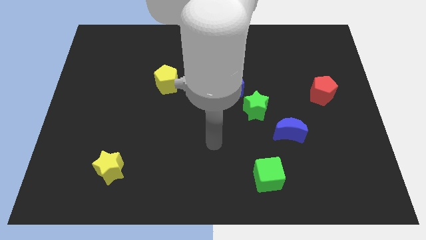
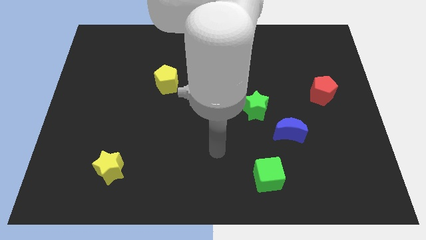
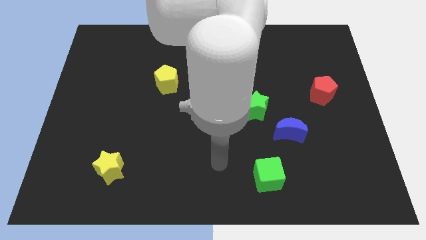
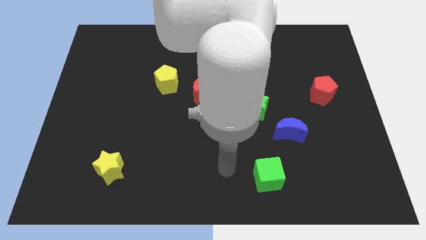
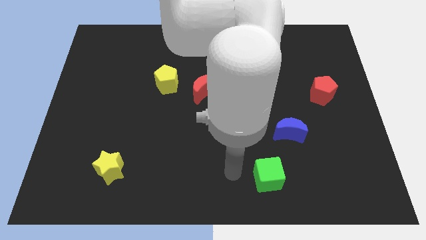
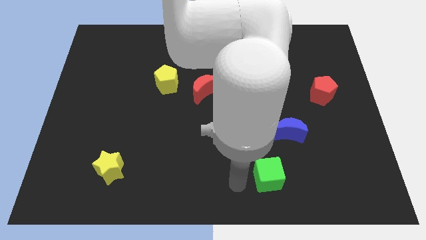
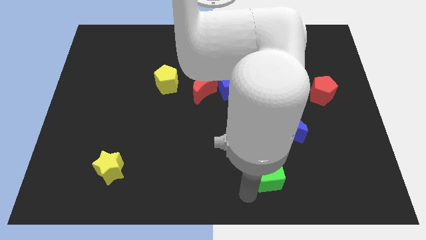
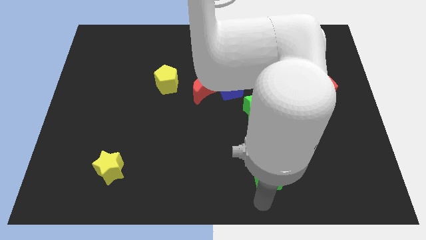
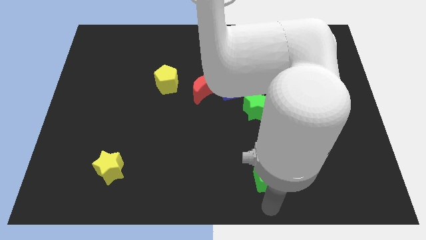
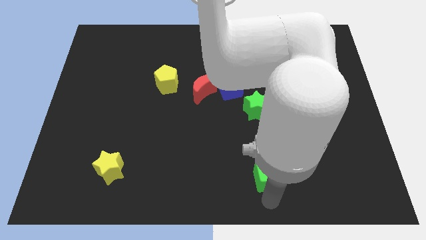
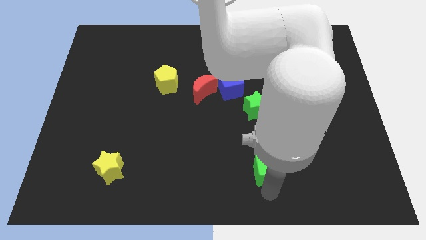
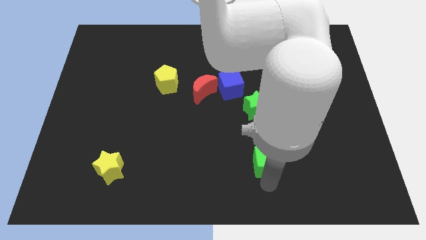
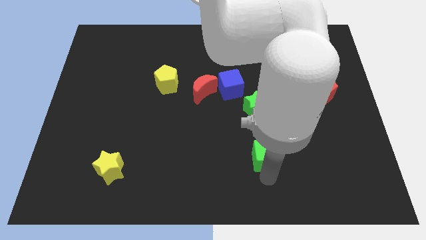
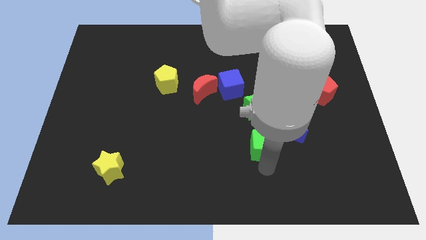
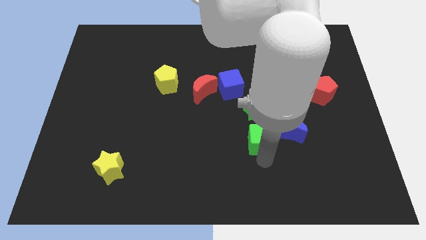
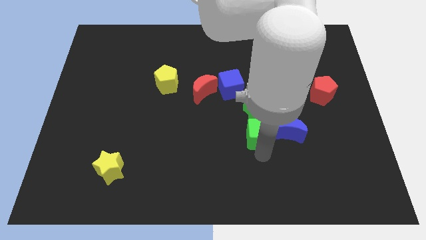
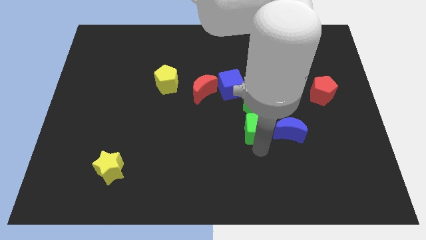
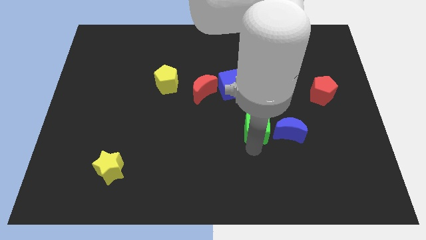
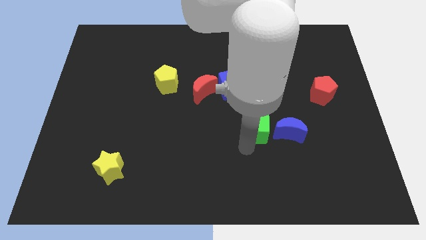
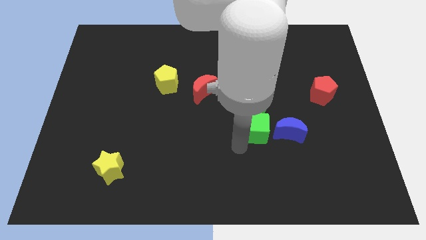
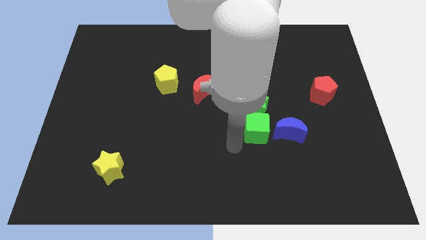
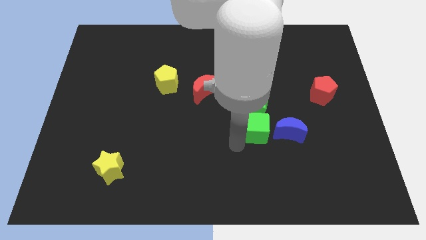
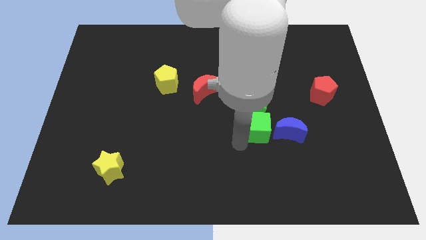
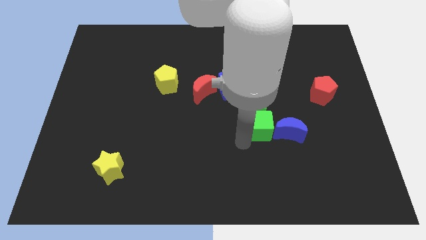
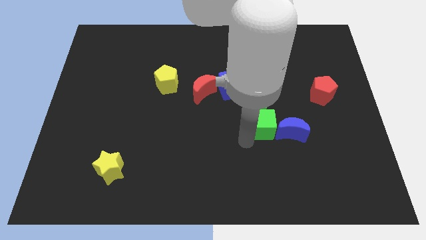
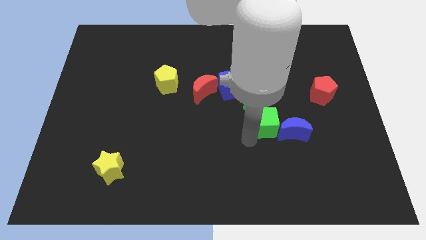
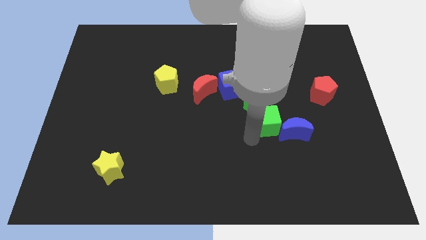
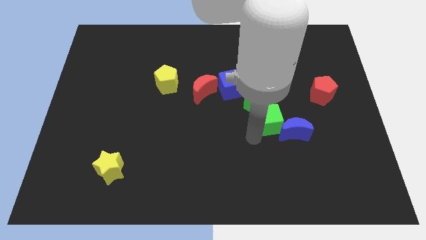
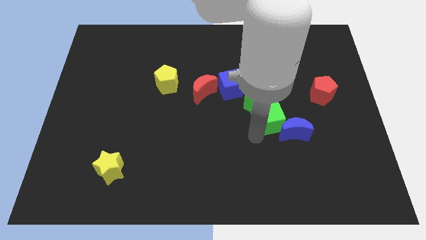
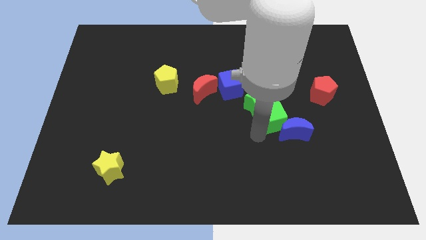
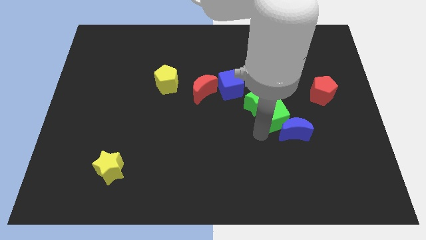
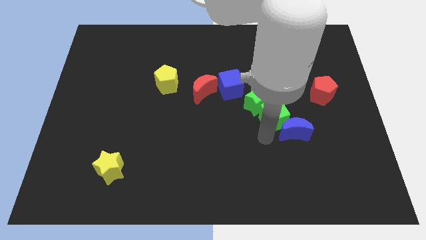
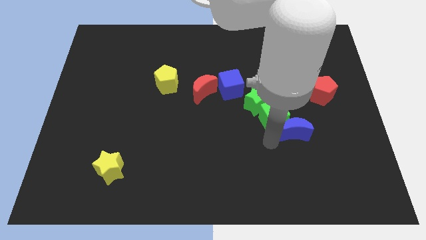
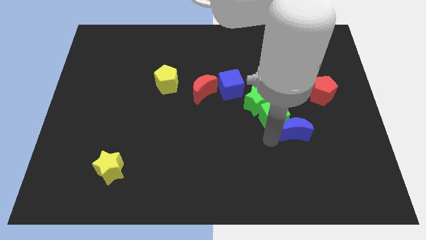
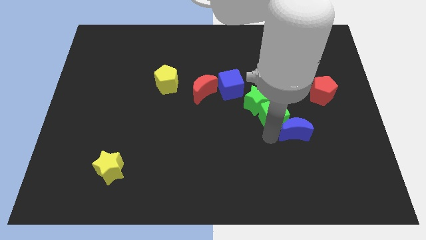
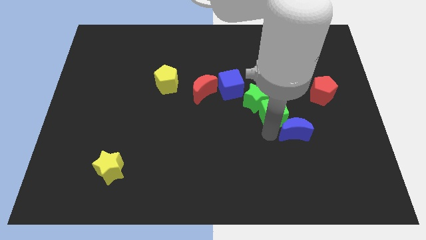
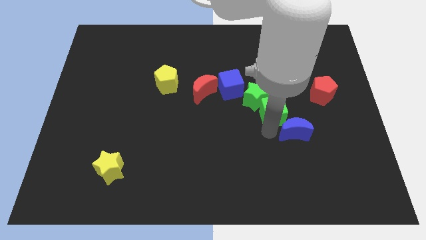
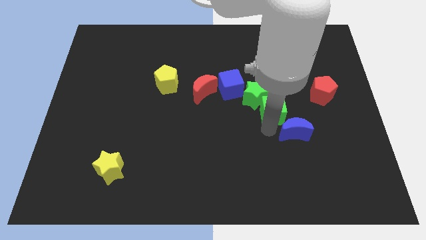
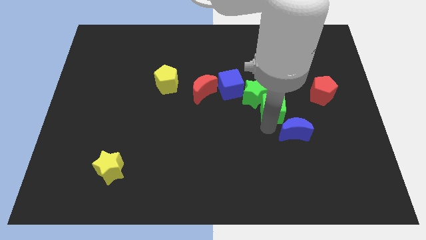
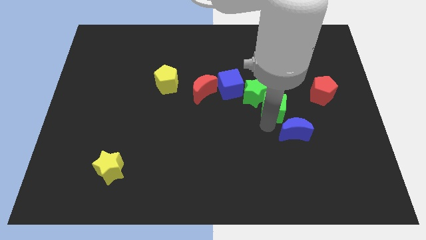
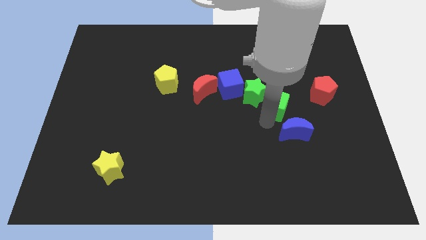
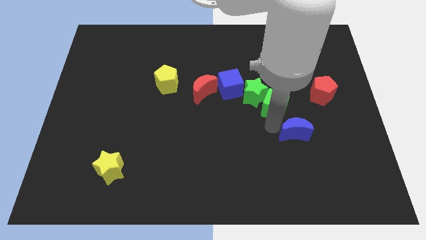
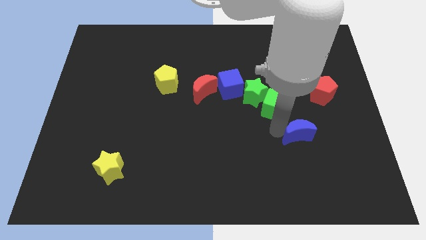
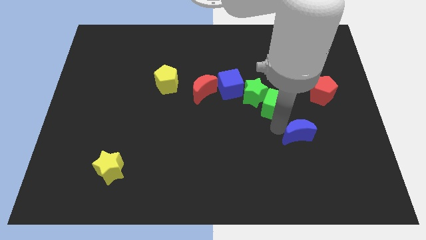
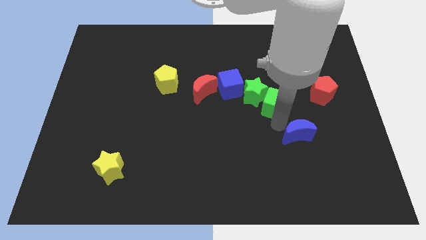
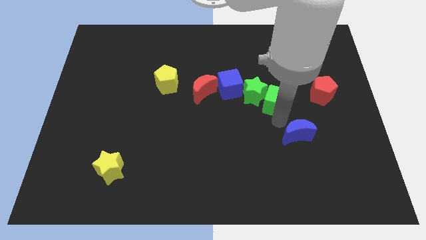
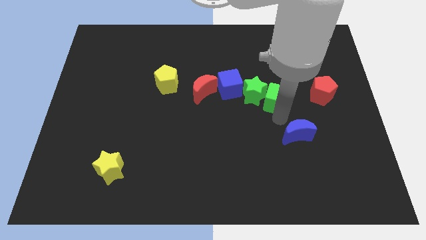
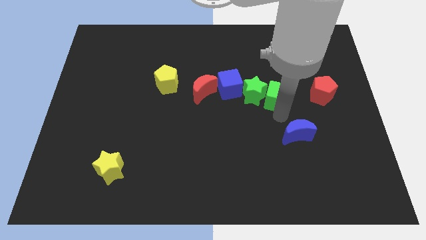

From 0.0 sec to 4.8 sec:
push the green cube up

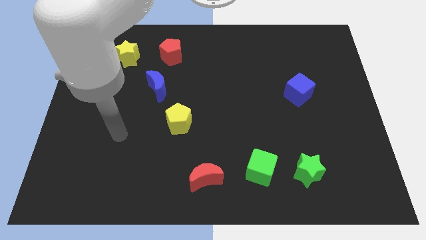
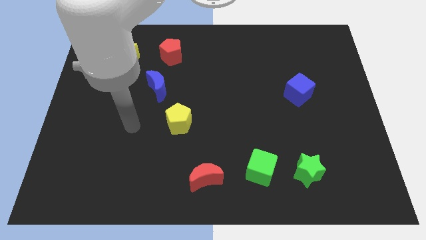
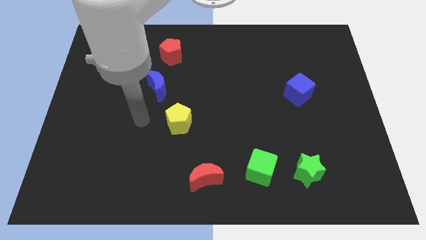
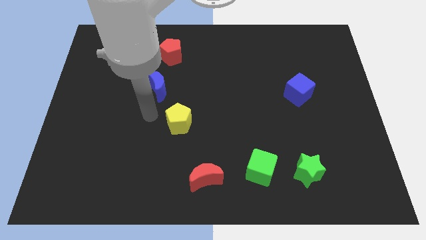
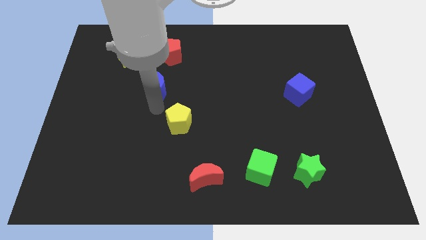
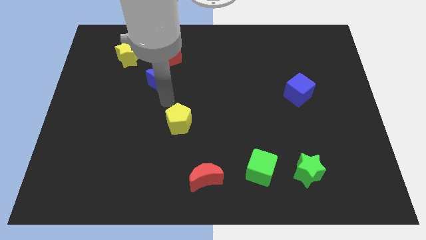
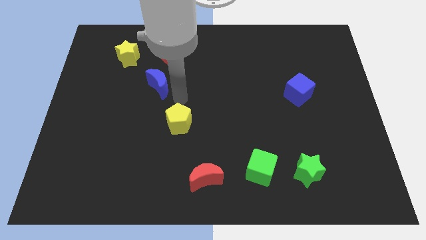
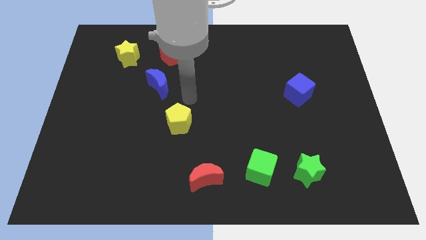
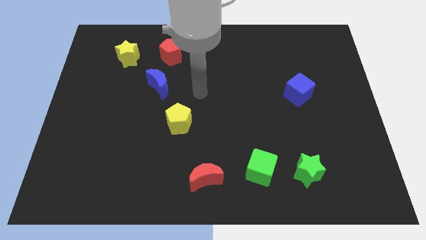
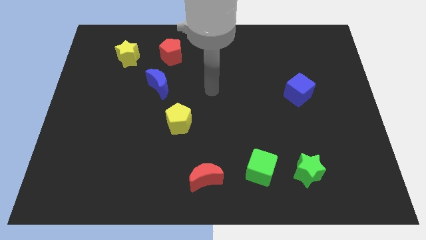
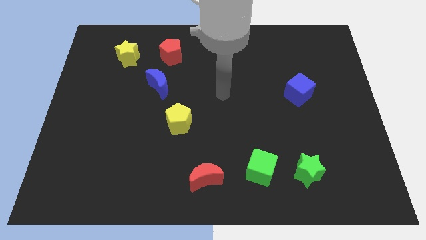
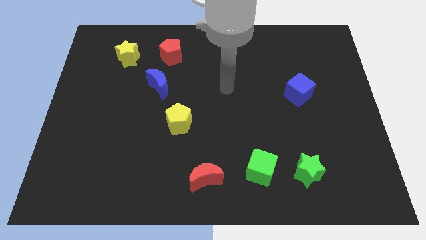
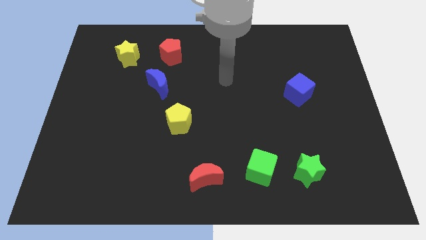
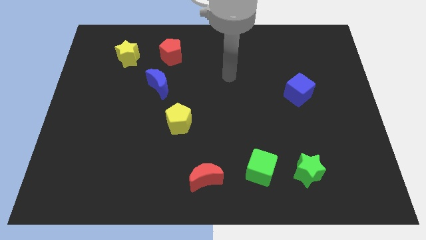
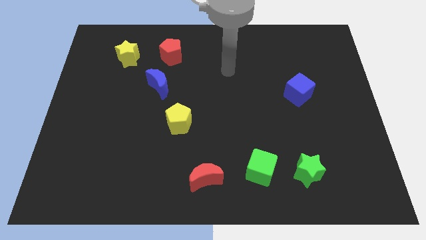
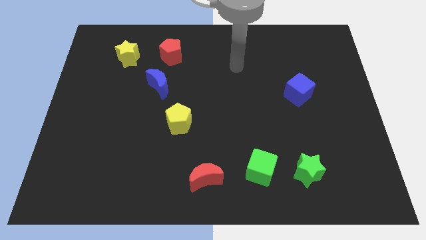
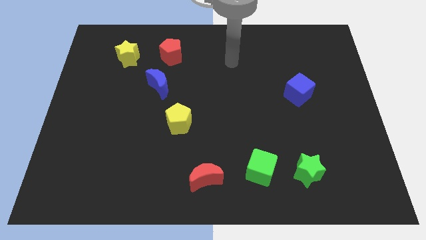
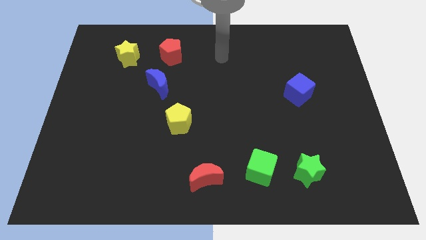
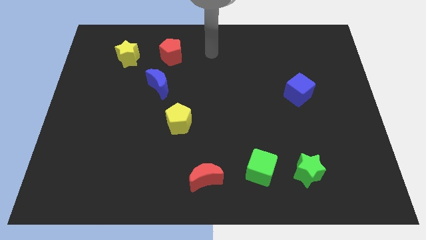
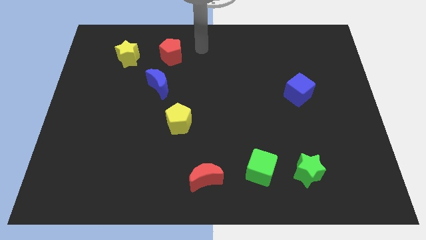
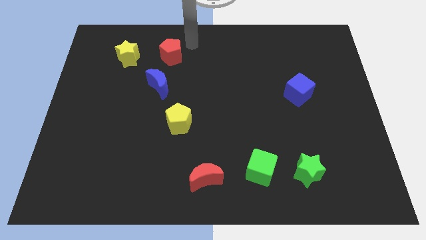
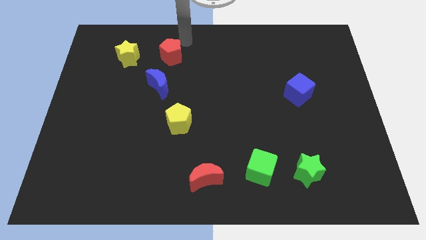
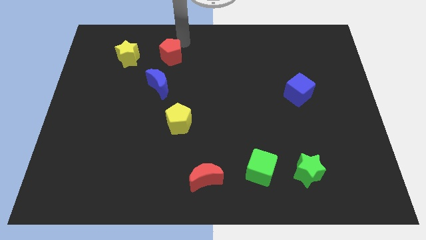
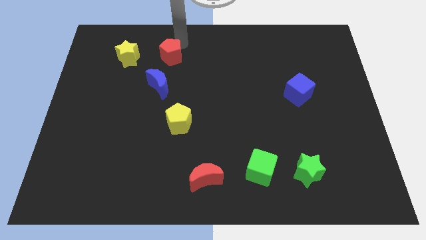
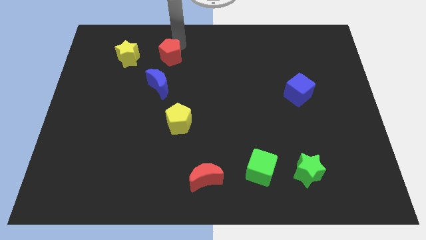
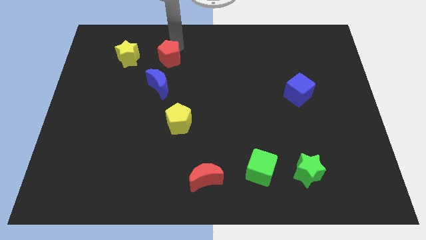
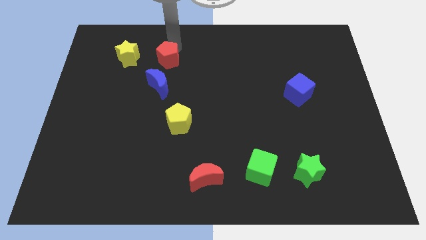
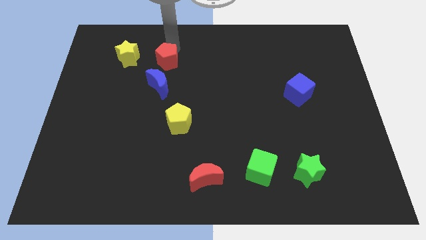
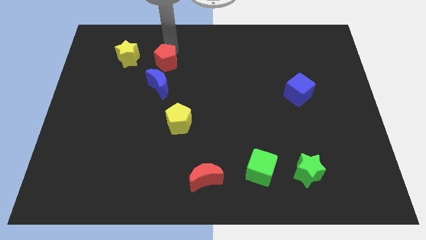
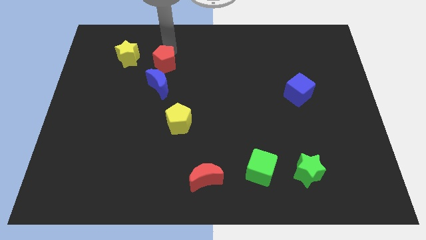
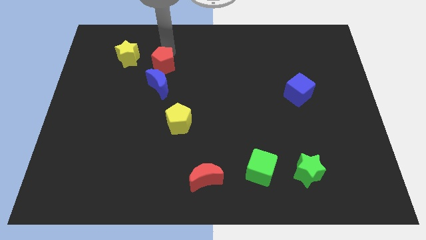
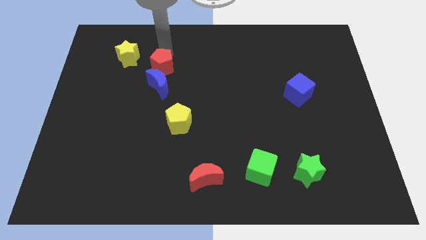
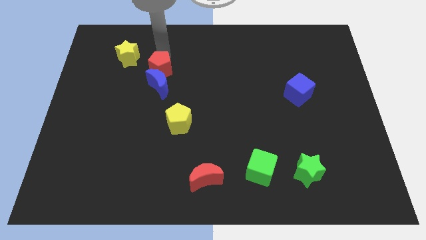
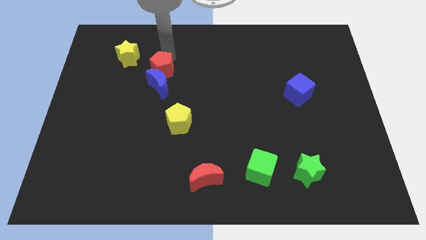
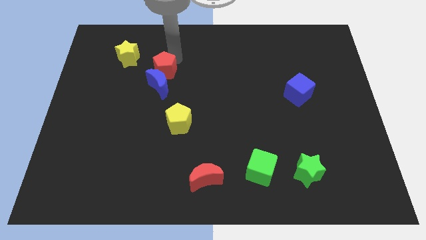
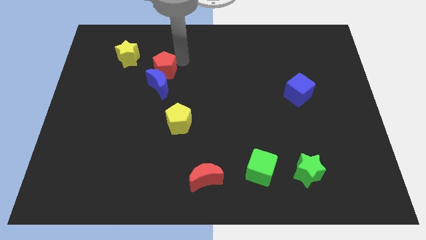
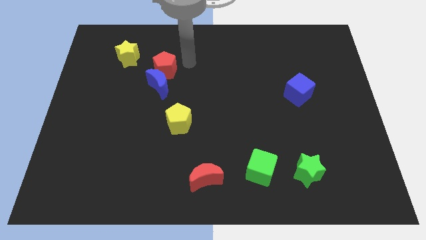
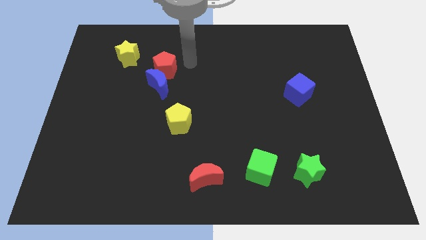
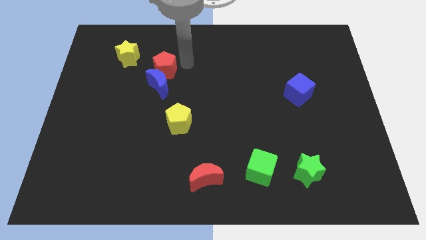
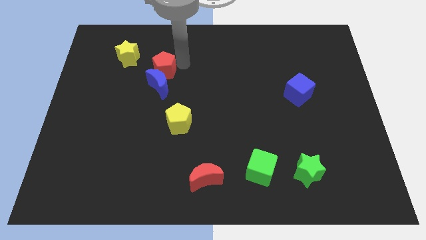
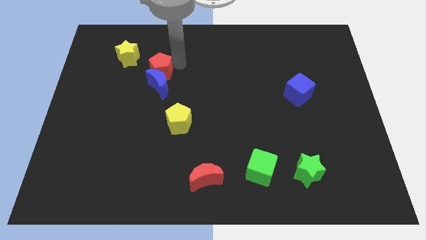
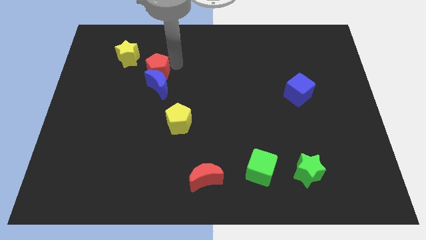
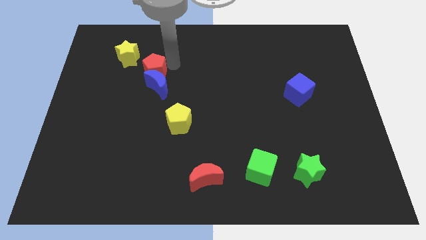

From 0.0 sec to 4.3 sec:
move the red pentagon down and then to the left a bit
